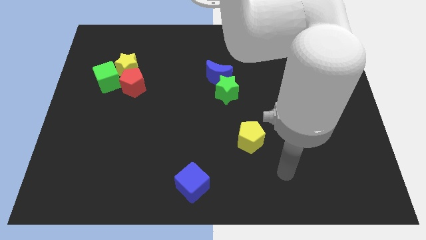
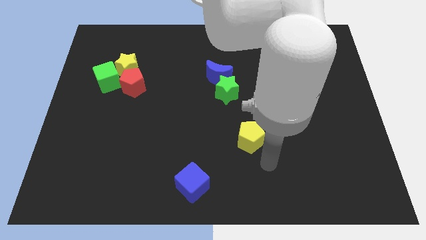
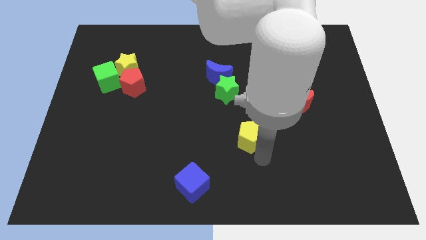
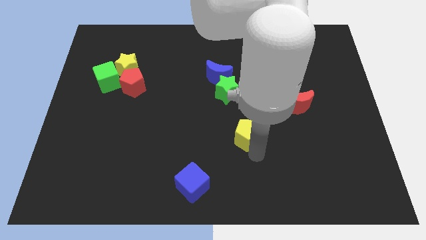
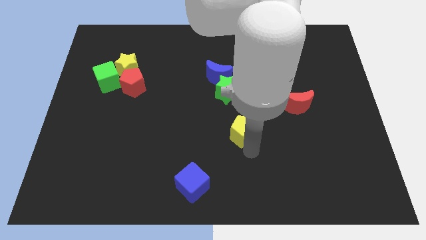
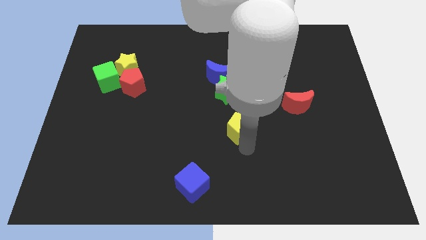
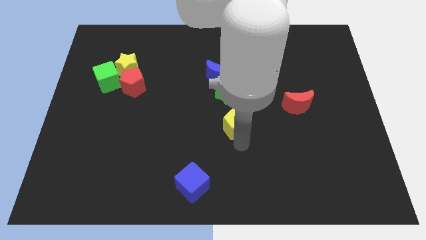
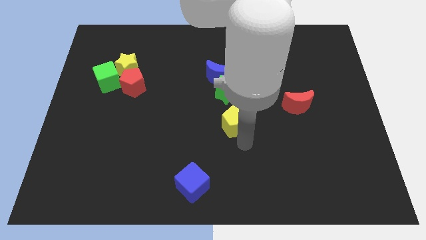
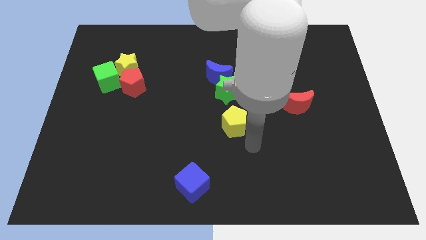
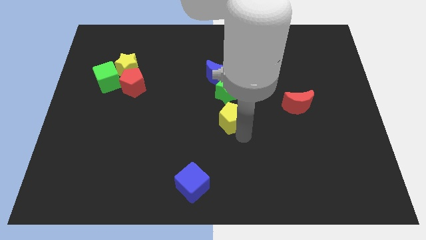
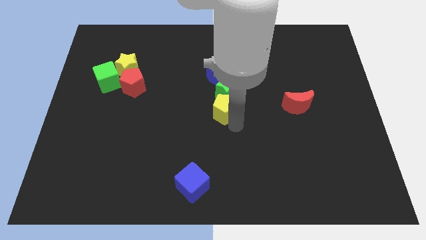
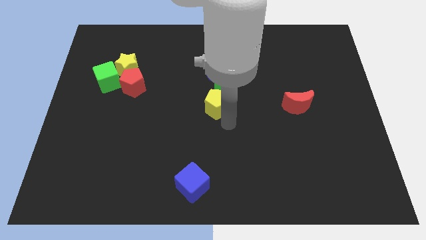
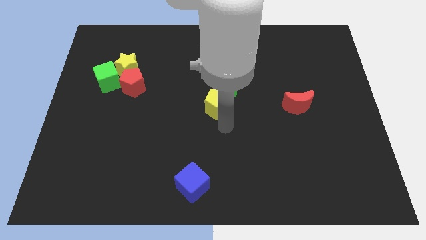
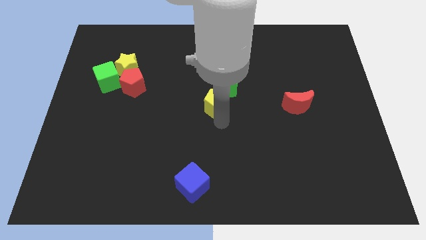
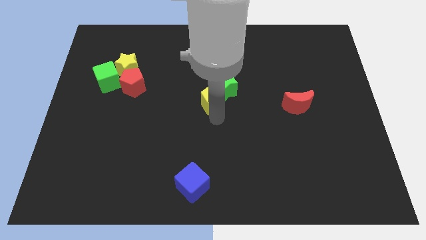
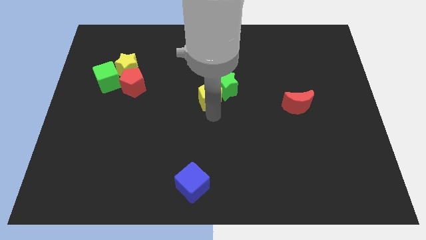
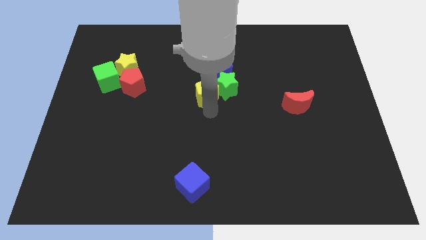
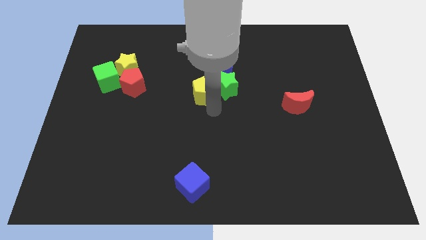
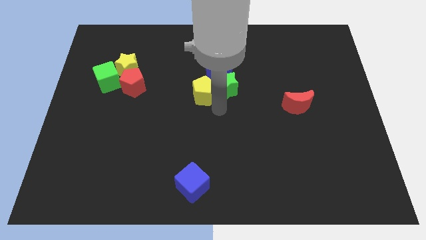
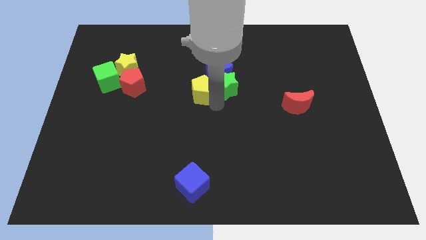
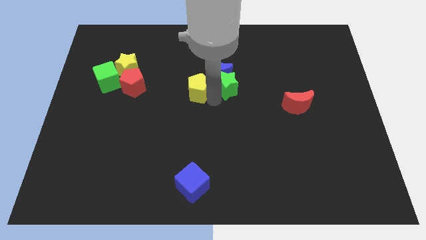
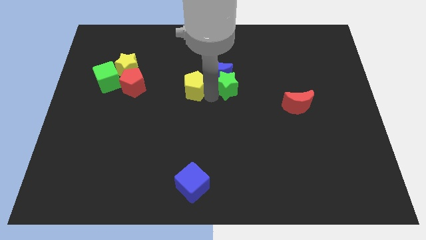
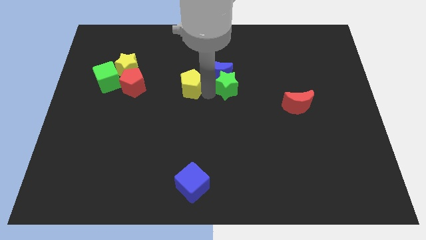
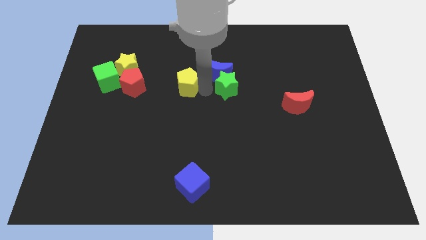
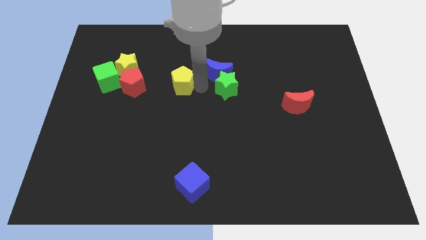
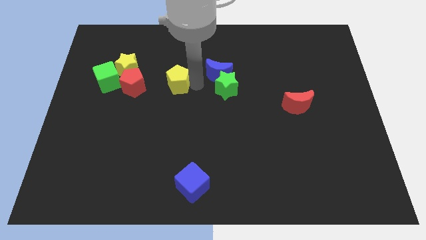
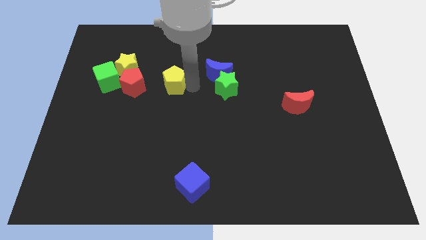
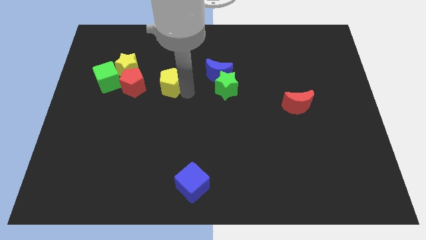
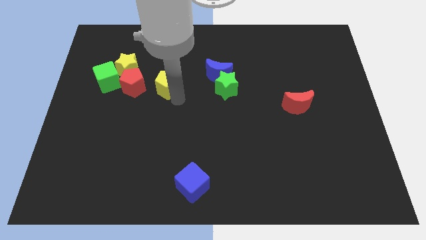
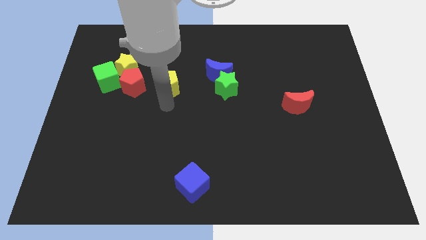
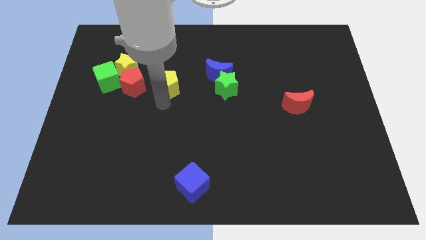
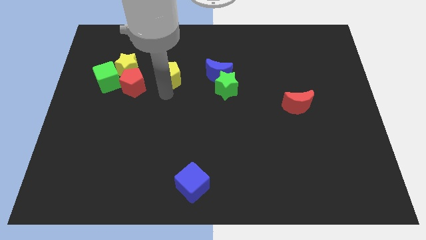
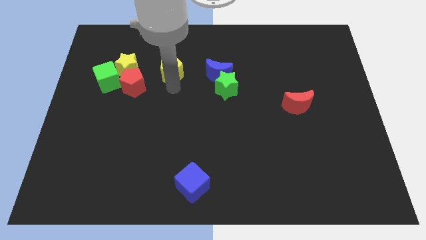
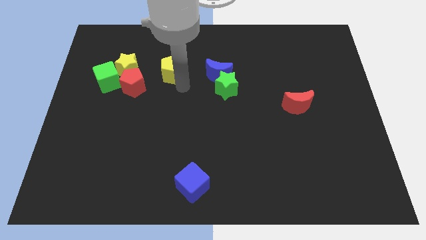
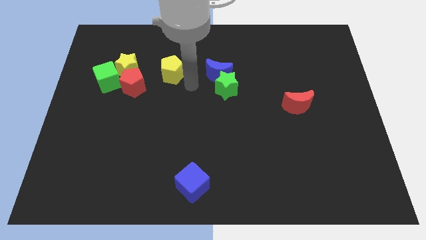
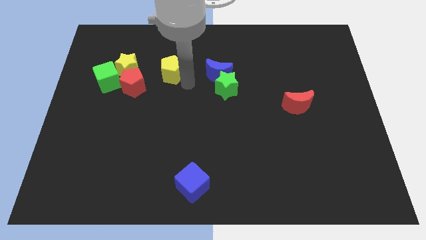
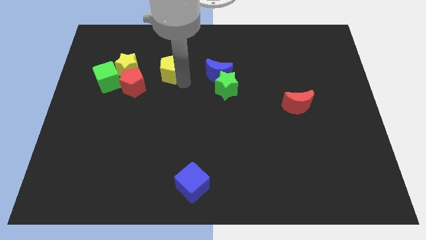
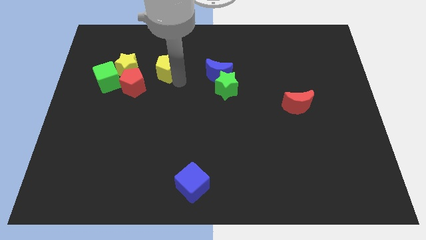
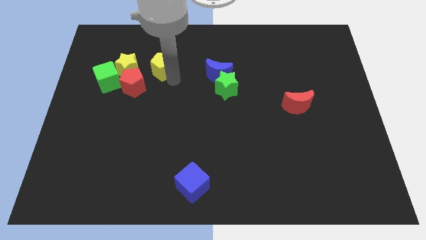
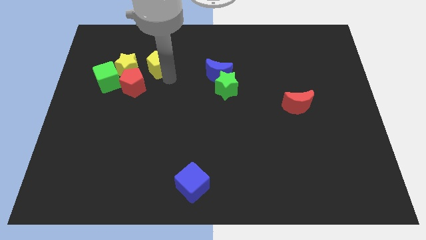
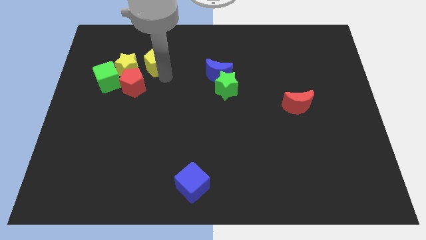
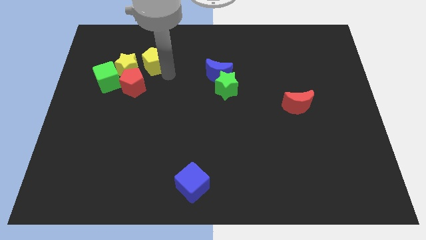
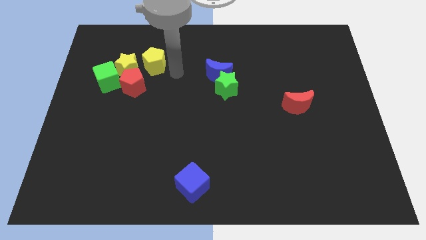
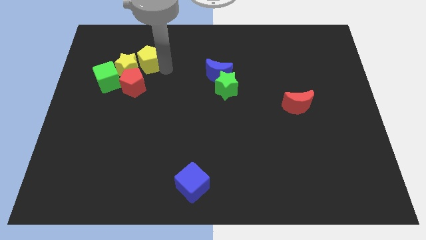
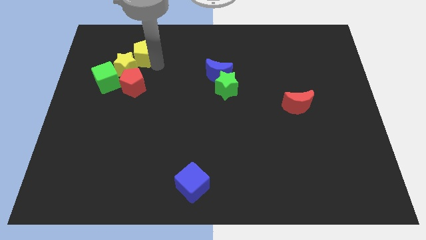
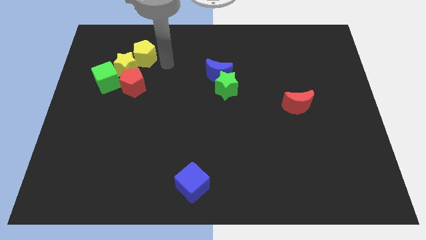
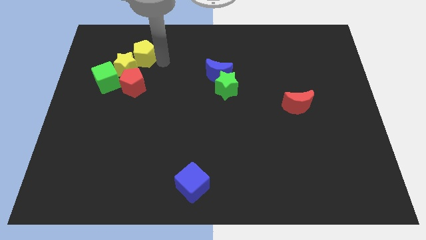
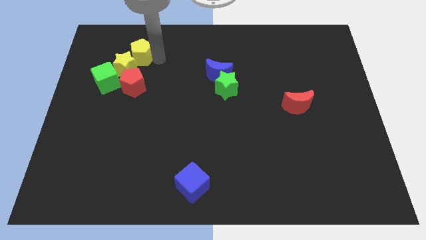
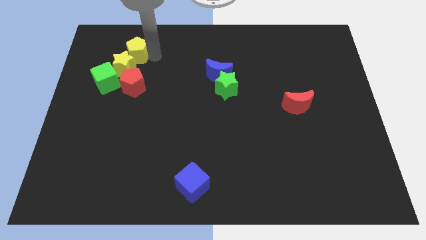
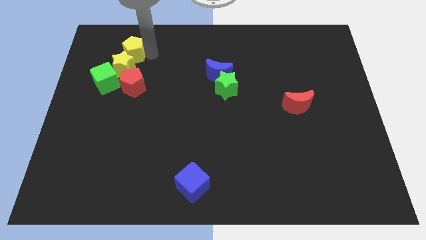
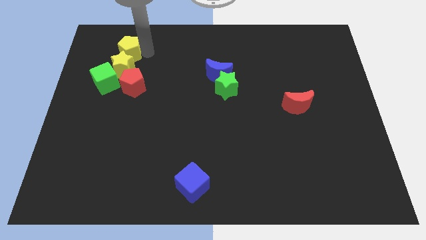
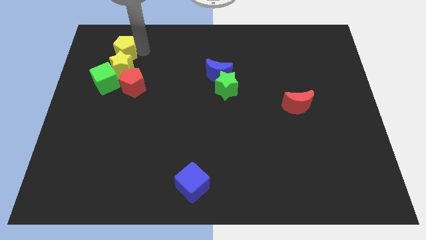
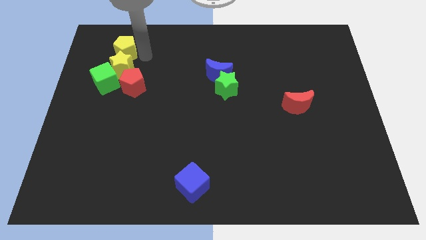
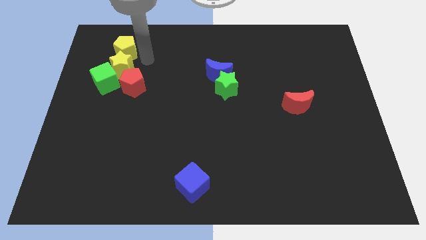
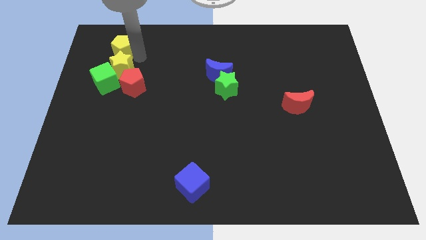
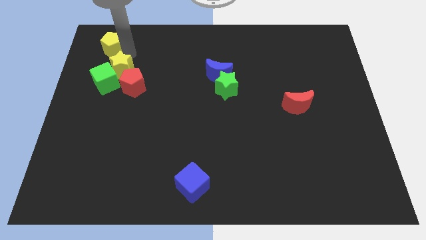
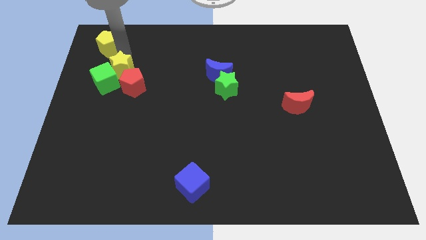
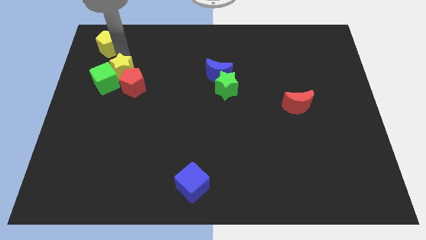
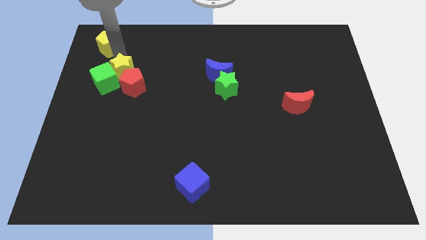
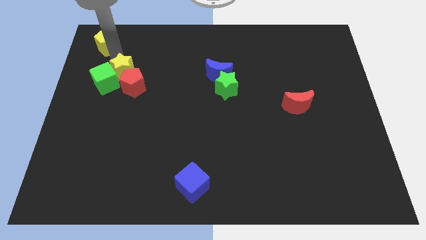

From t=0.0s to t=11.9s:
slide the yellow pentagon to the top left of the board
